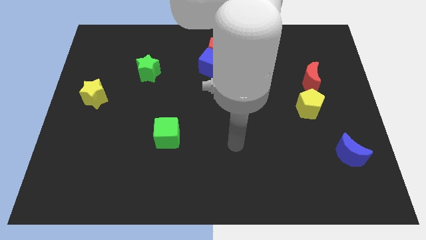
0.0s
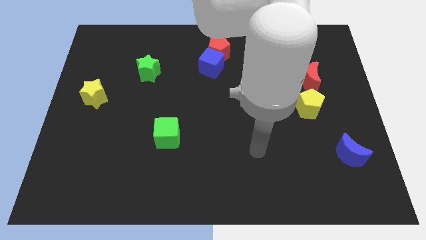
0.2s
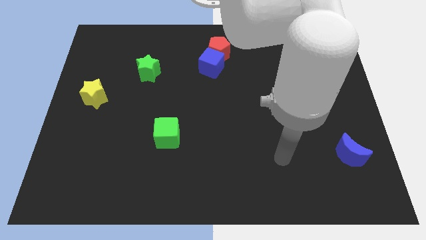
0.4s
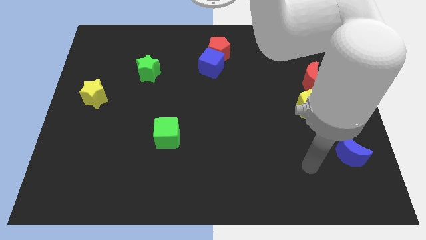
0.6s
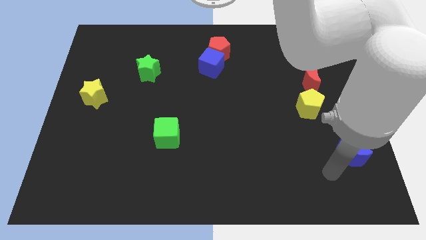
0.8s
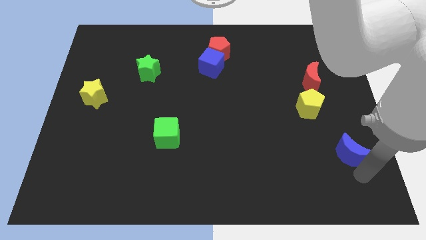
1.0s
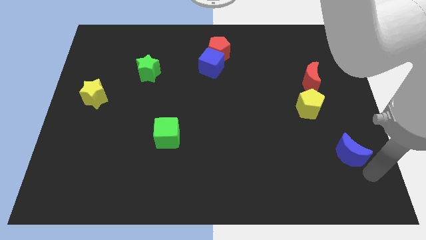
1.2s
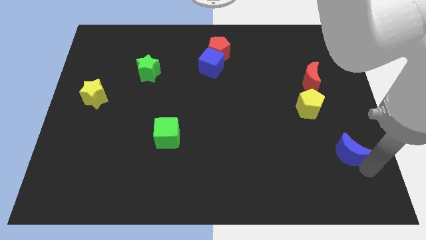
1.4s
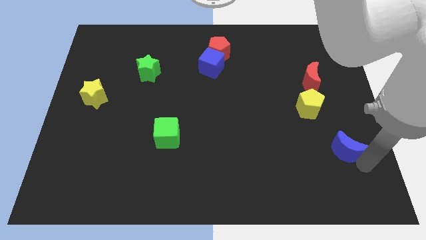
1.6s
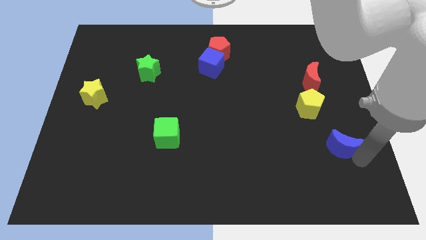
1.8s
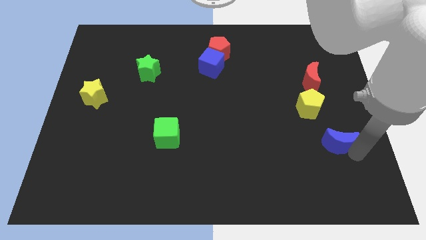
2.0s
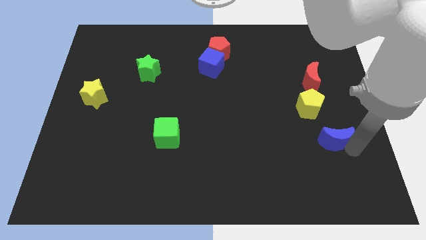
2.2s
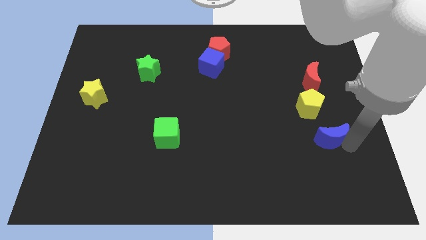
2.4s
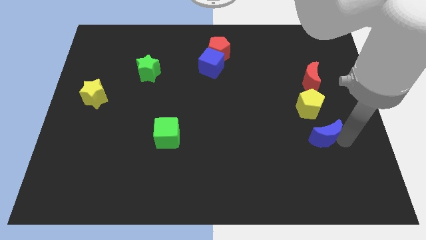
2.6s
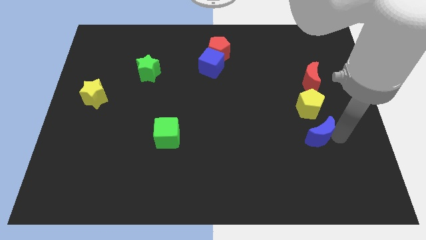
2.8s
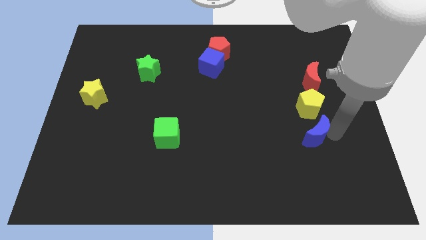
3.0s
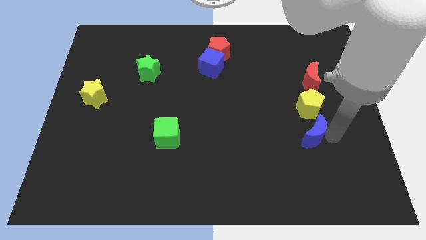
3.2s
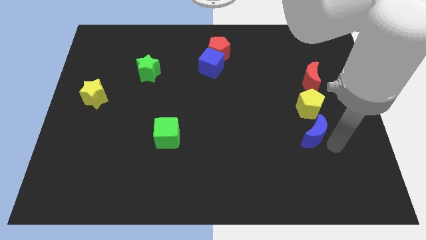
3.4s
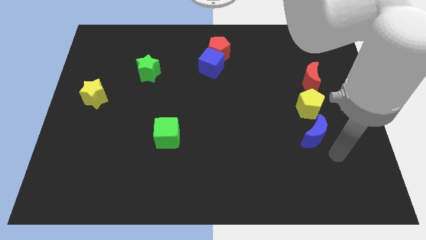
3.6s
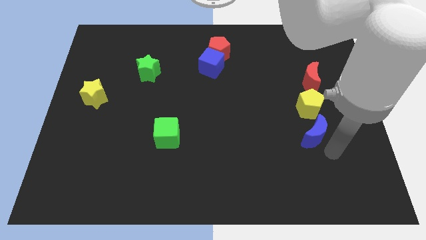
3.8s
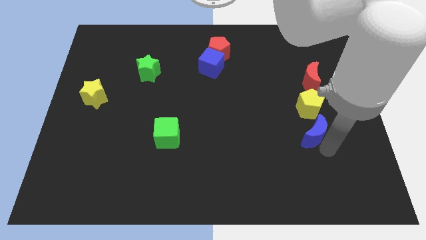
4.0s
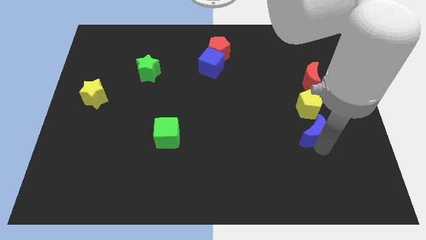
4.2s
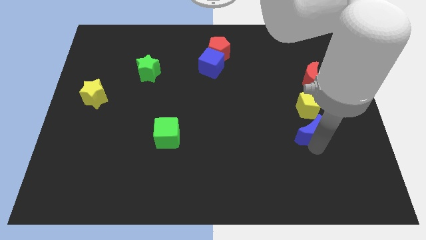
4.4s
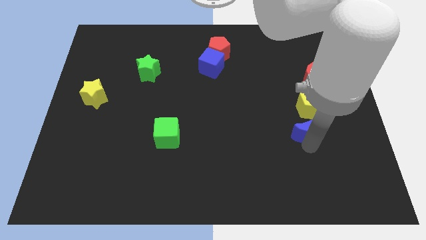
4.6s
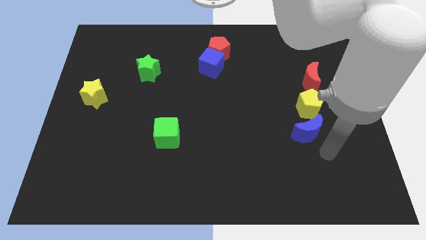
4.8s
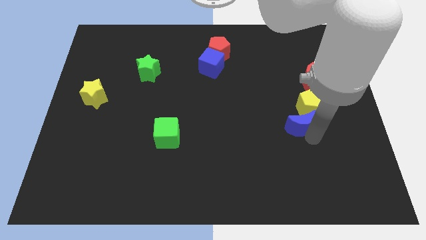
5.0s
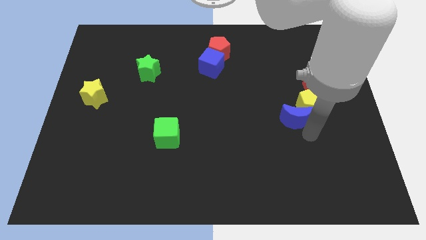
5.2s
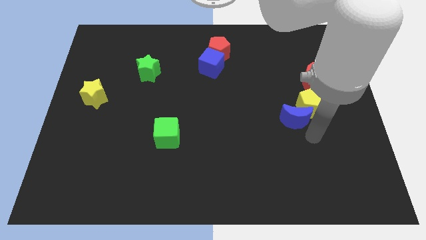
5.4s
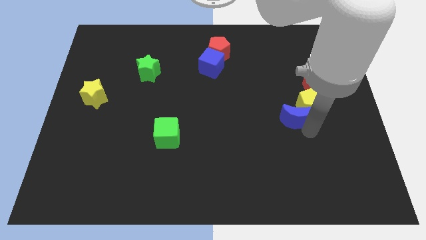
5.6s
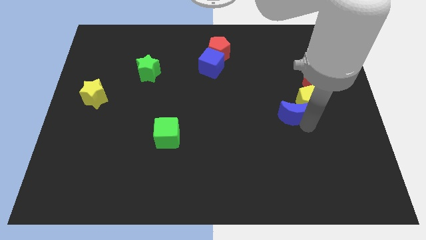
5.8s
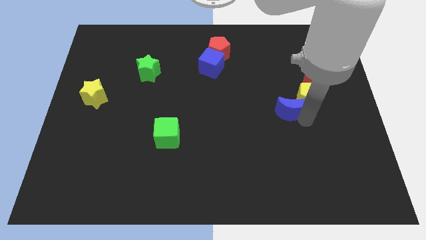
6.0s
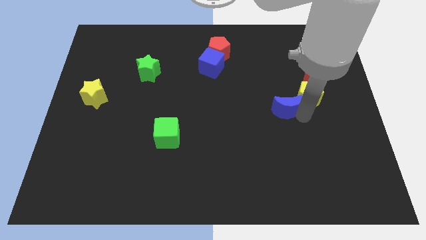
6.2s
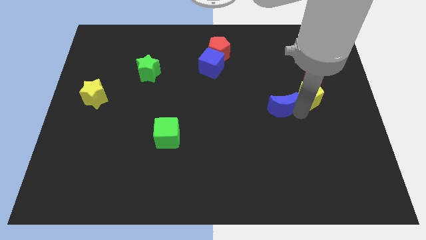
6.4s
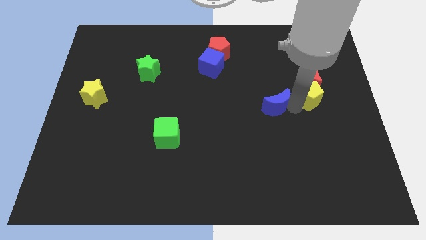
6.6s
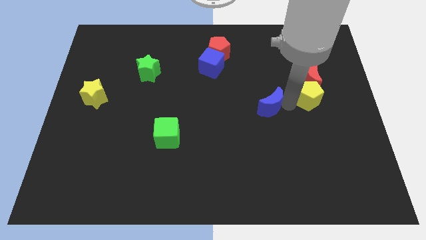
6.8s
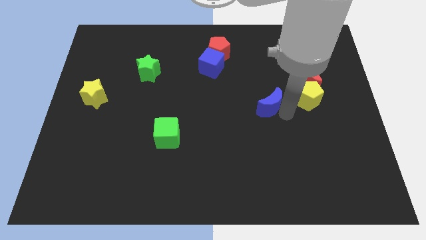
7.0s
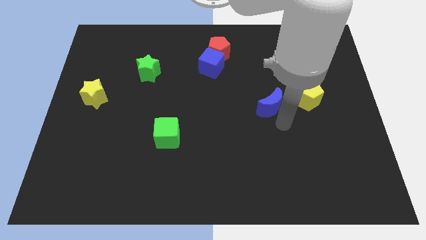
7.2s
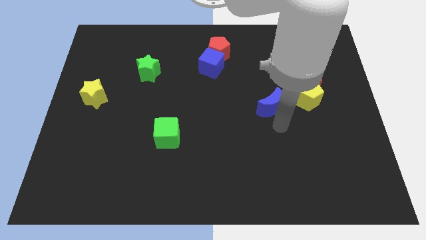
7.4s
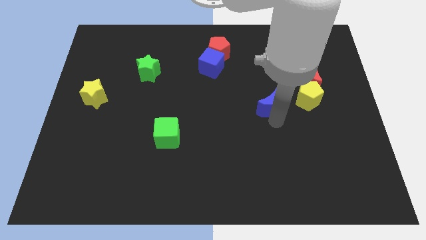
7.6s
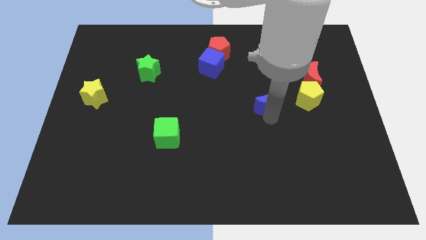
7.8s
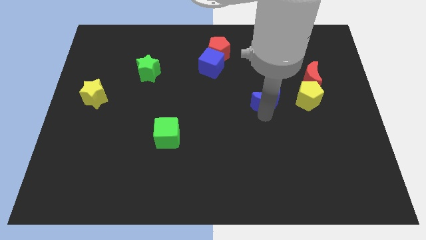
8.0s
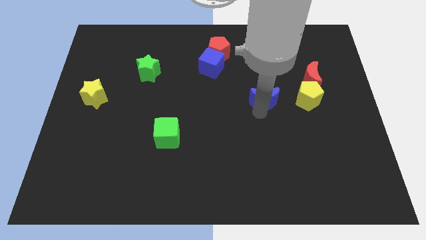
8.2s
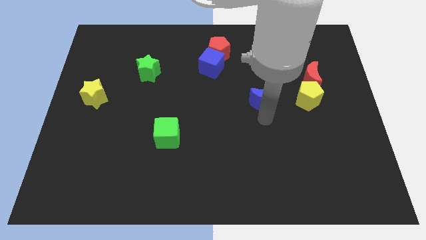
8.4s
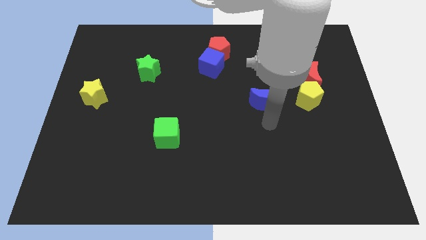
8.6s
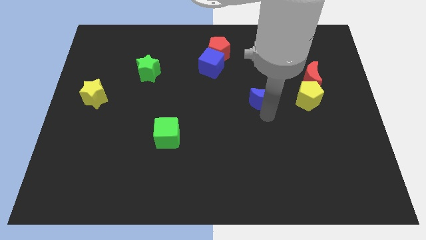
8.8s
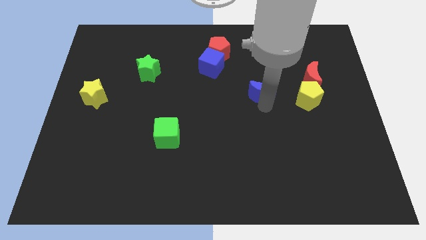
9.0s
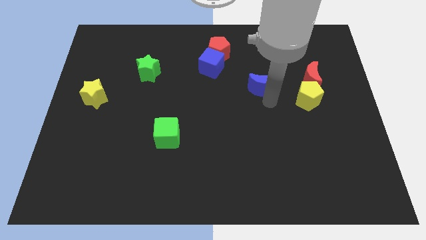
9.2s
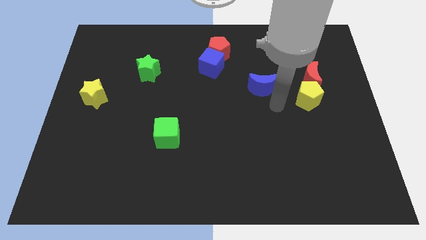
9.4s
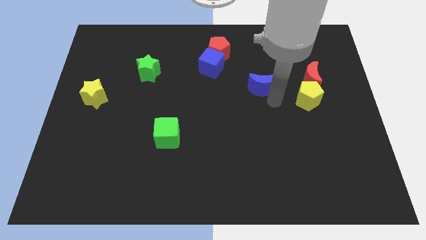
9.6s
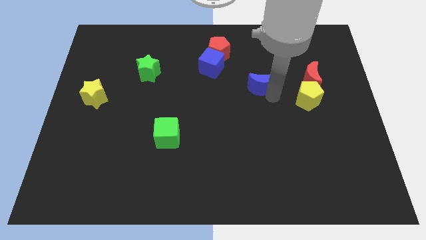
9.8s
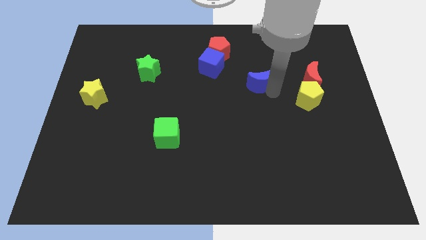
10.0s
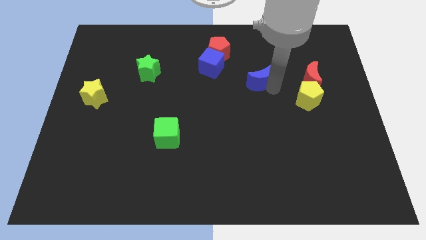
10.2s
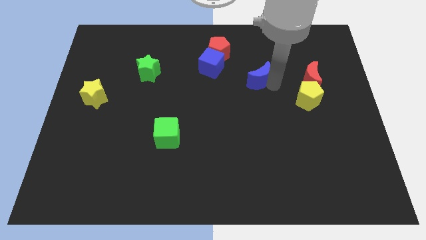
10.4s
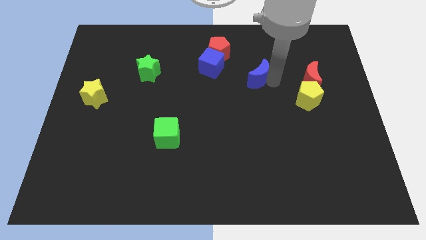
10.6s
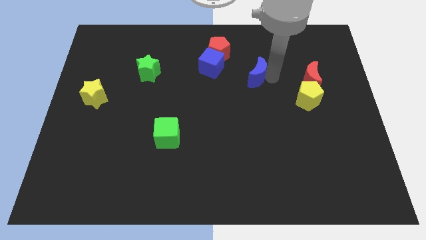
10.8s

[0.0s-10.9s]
push the blue moon to the bottom right side of the red pentagon

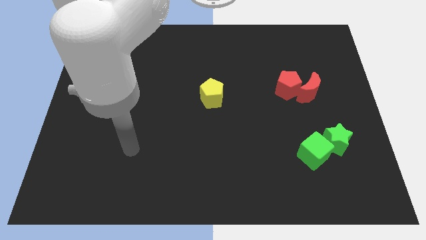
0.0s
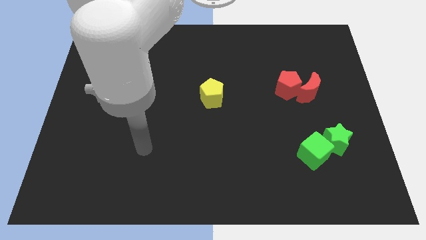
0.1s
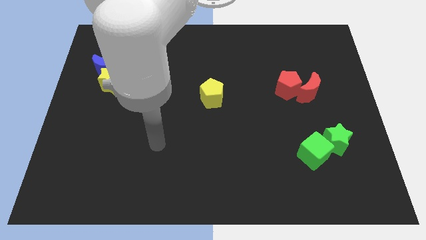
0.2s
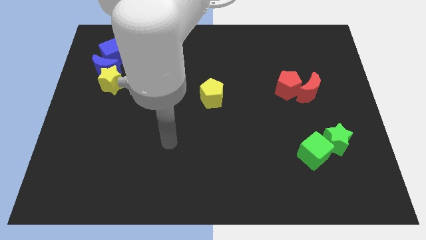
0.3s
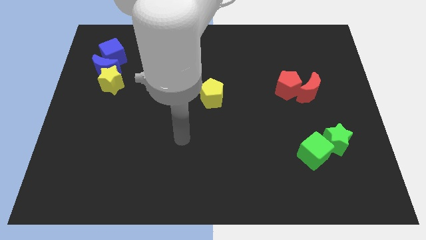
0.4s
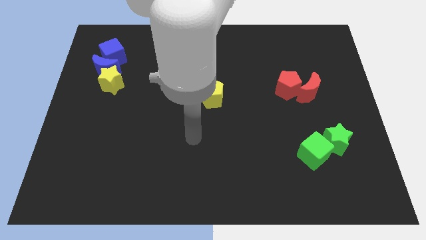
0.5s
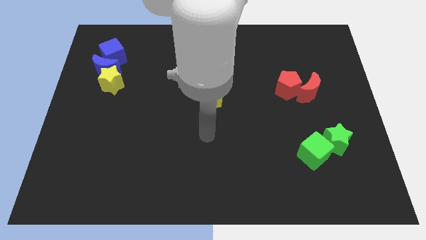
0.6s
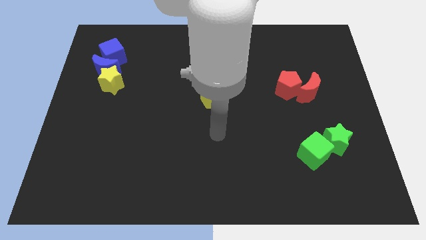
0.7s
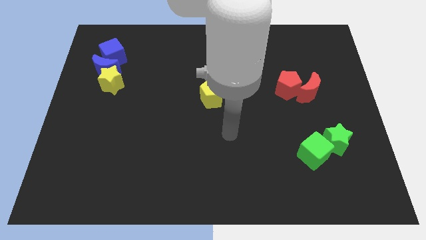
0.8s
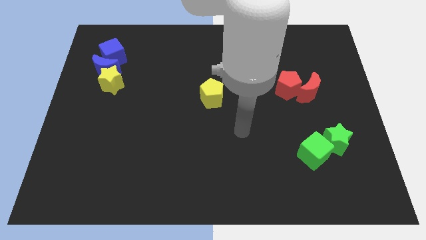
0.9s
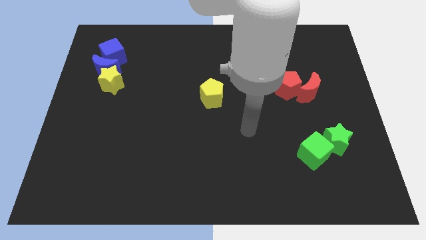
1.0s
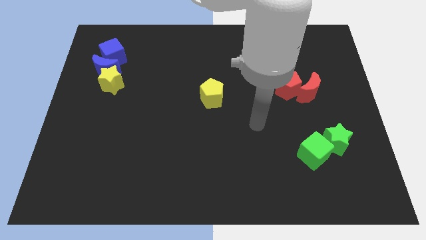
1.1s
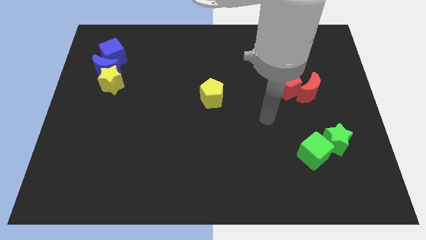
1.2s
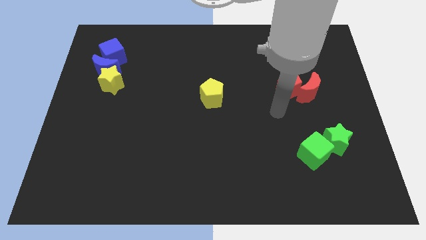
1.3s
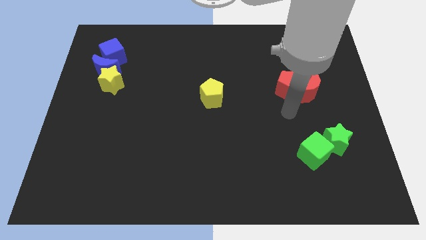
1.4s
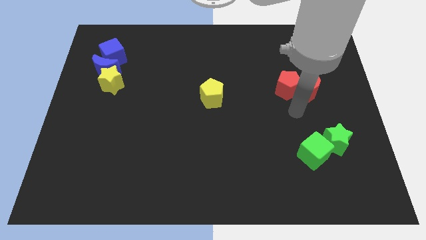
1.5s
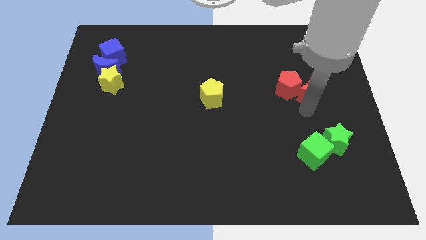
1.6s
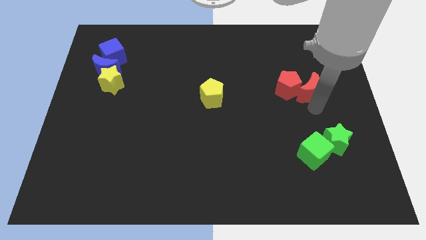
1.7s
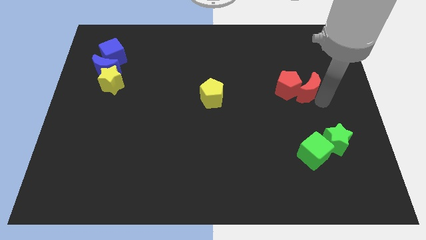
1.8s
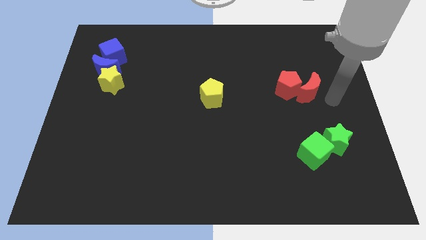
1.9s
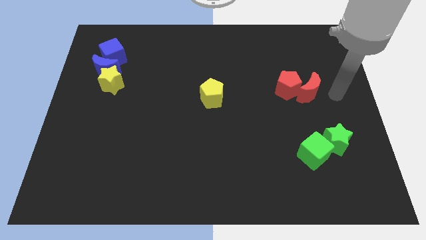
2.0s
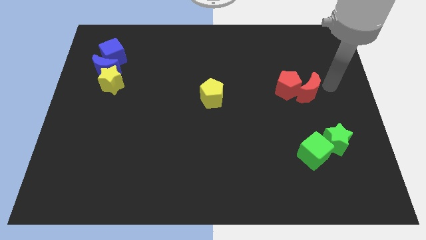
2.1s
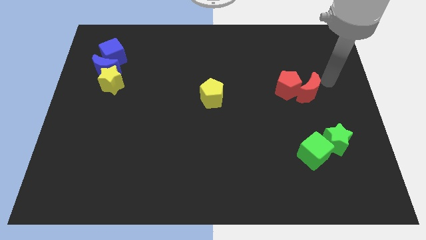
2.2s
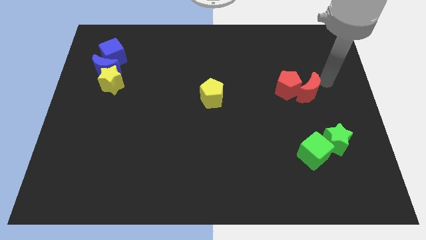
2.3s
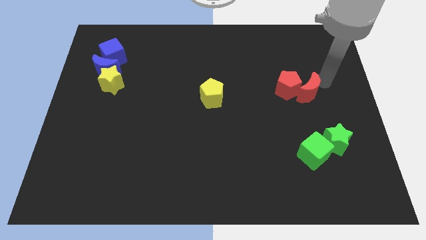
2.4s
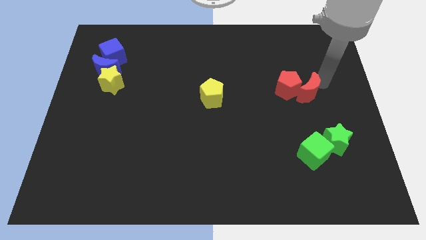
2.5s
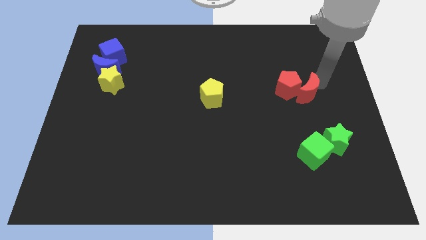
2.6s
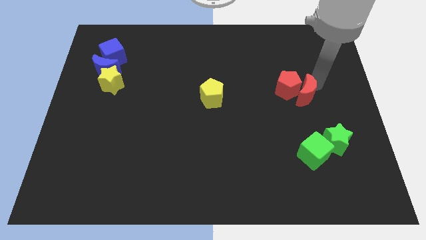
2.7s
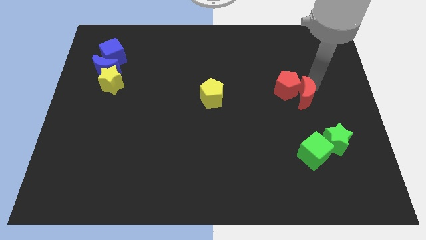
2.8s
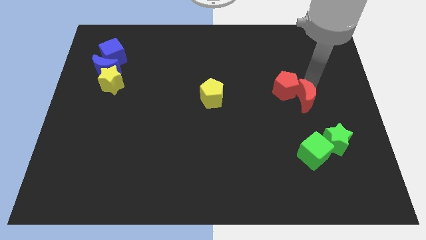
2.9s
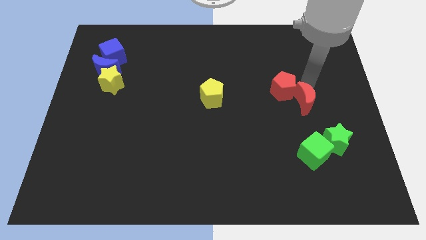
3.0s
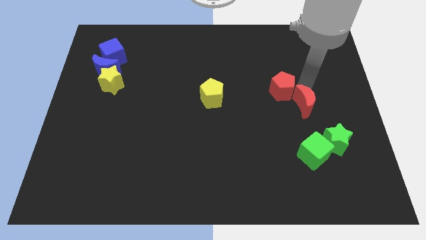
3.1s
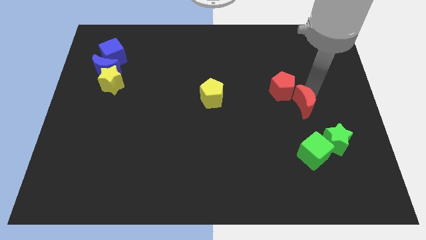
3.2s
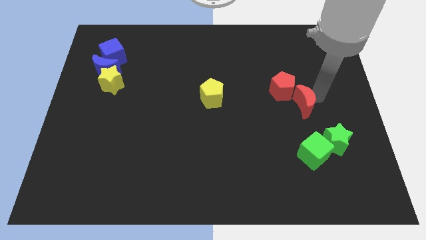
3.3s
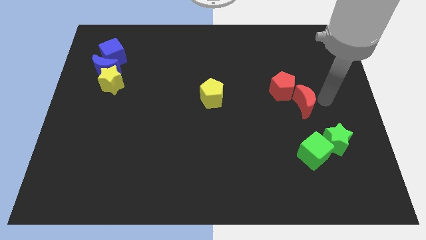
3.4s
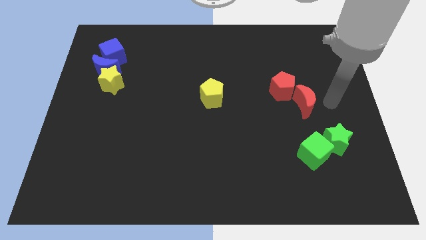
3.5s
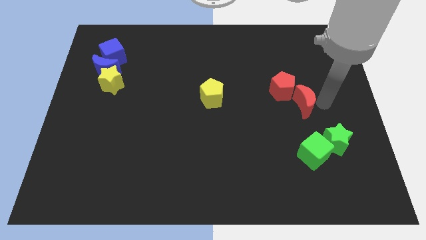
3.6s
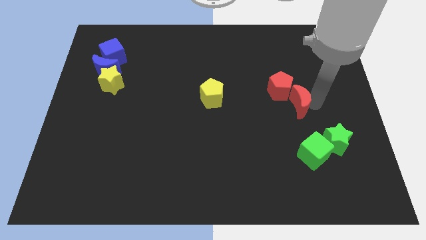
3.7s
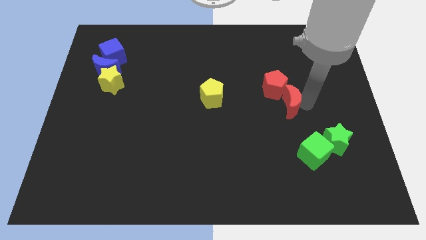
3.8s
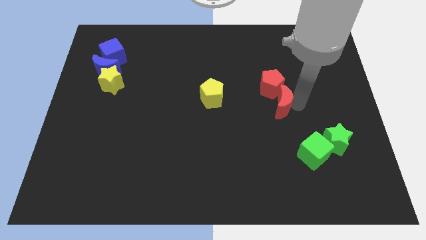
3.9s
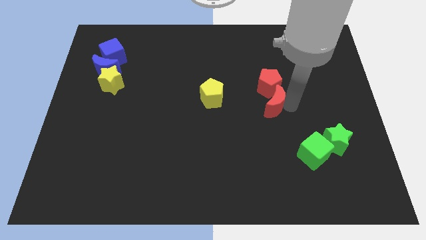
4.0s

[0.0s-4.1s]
move the red moon to the bottom left side of the red pentagon
